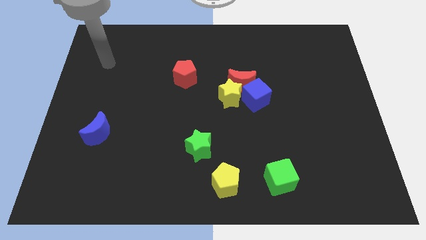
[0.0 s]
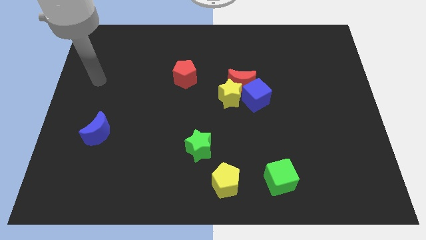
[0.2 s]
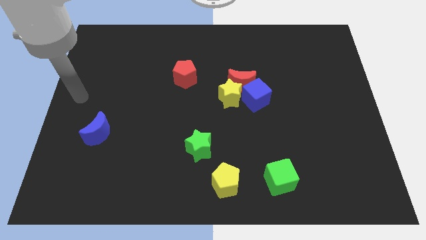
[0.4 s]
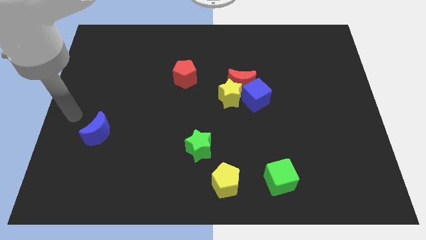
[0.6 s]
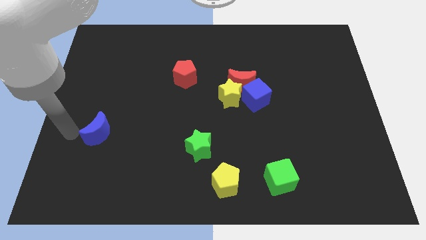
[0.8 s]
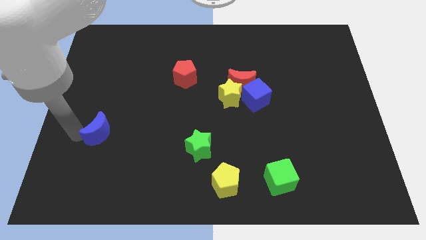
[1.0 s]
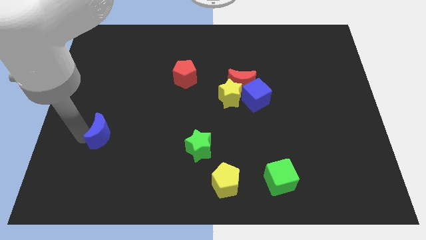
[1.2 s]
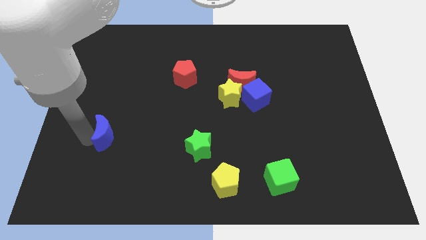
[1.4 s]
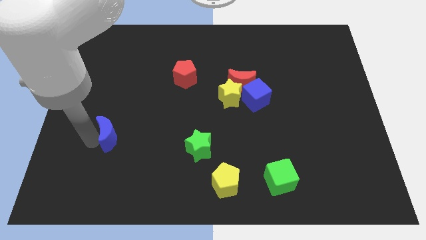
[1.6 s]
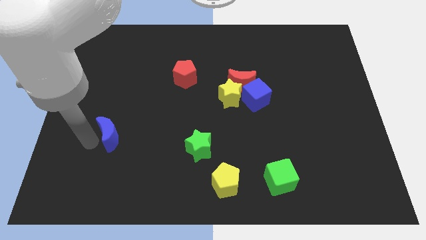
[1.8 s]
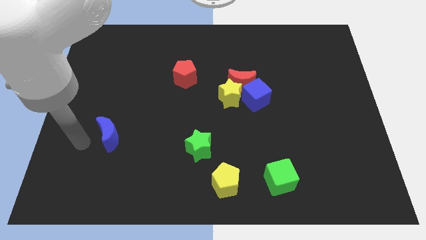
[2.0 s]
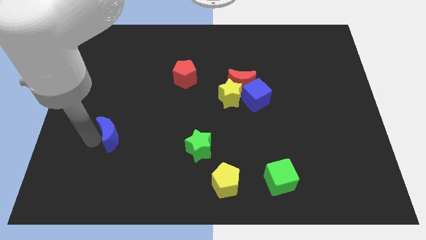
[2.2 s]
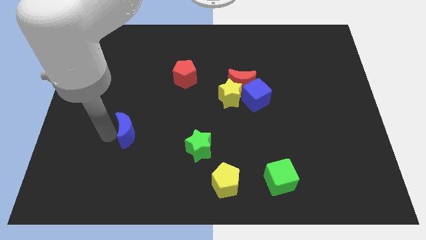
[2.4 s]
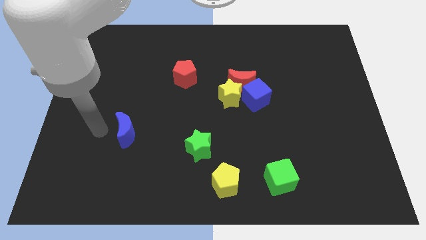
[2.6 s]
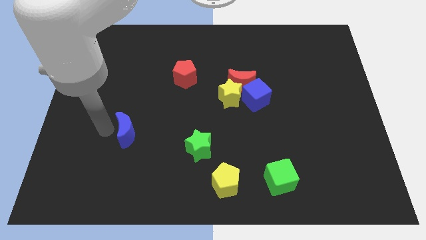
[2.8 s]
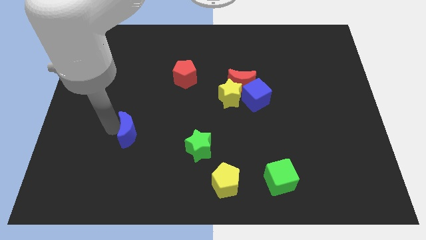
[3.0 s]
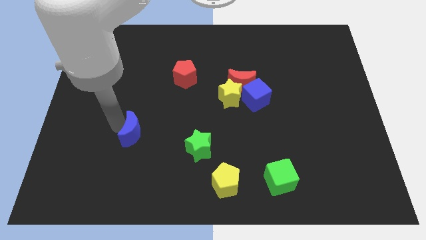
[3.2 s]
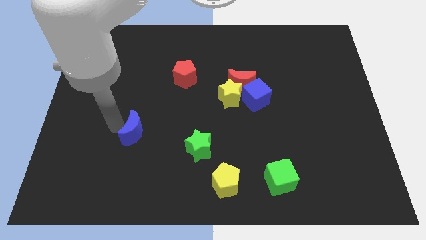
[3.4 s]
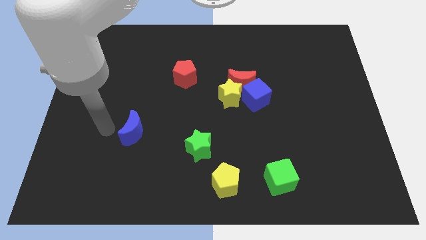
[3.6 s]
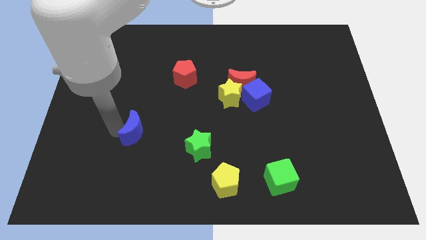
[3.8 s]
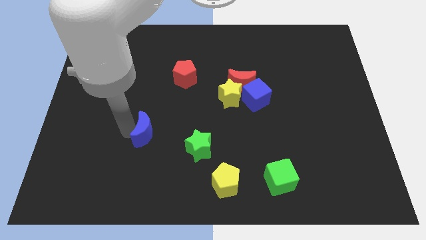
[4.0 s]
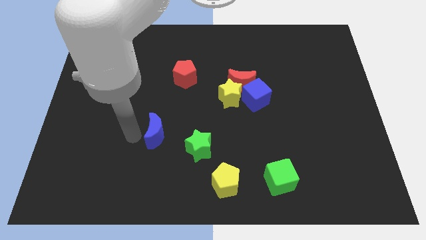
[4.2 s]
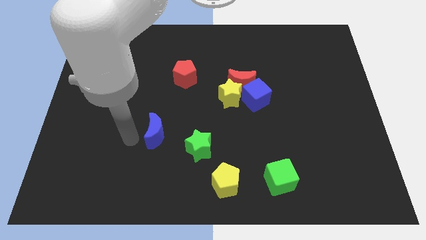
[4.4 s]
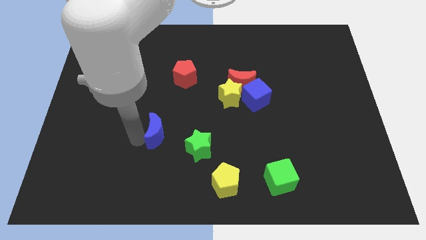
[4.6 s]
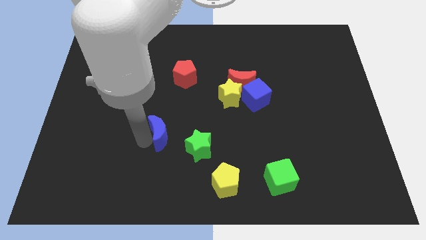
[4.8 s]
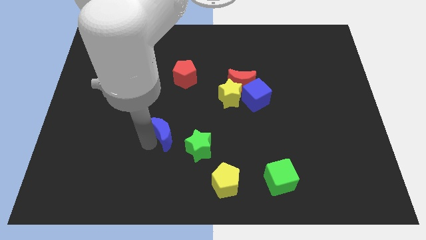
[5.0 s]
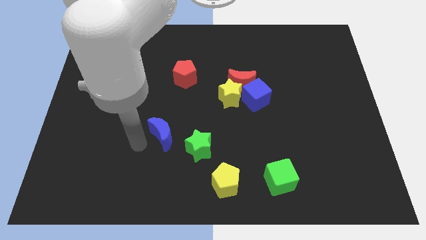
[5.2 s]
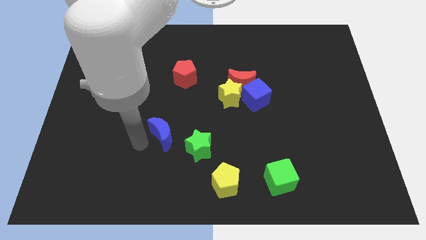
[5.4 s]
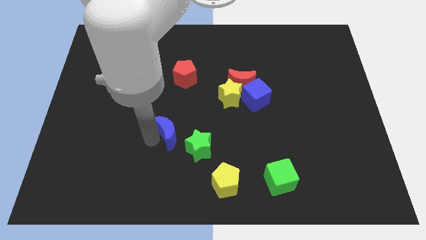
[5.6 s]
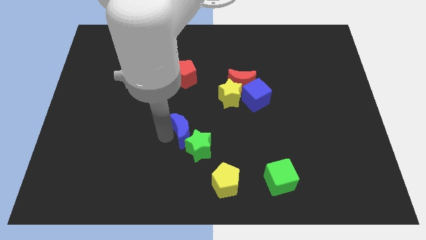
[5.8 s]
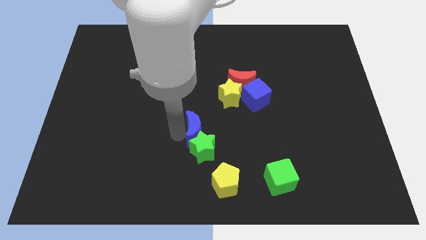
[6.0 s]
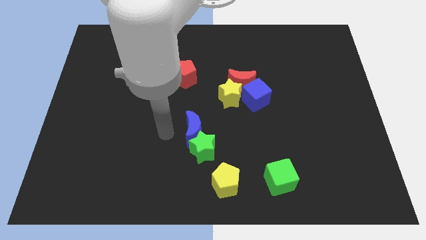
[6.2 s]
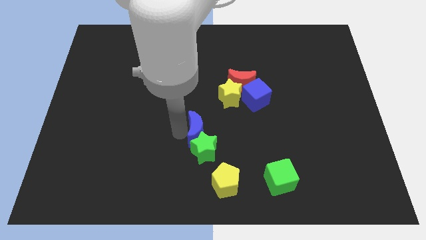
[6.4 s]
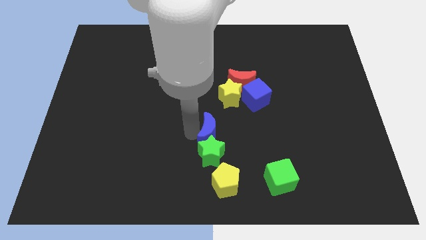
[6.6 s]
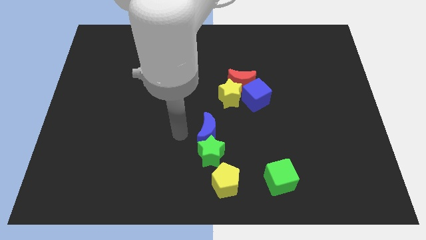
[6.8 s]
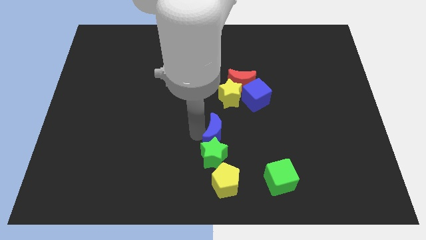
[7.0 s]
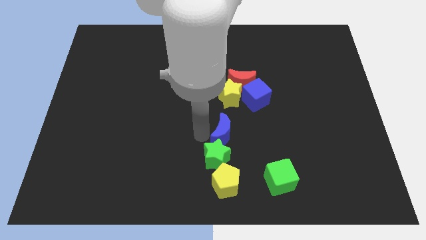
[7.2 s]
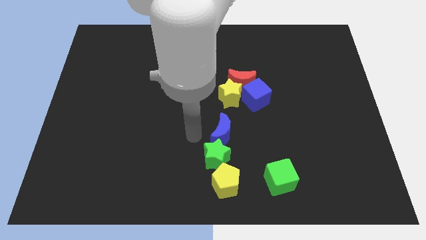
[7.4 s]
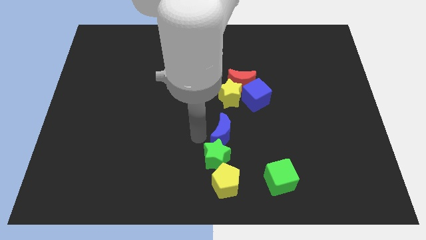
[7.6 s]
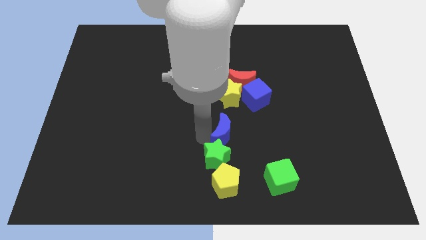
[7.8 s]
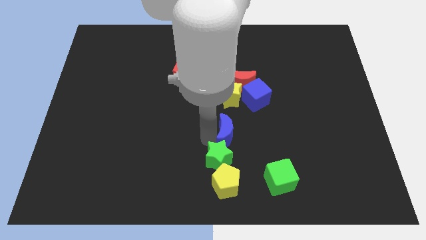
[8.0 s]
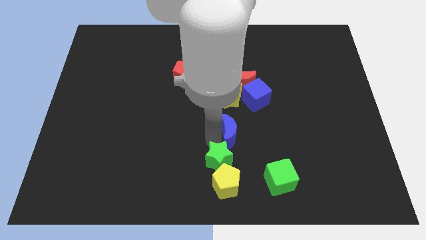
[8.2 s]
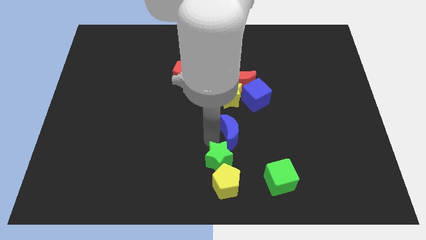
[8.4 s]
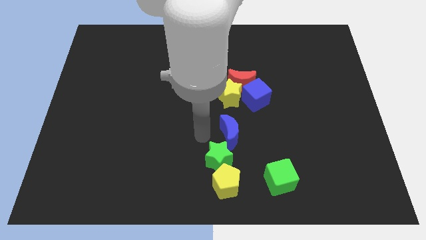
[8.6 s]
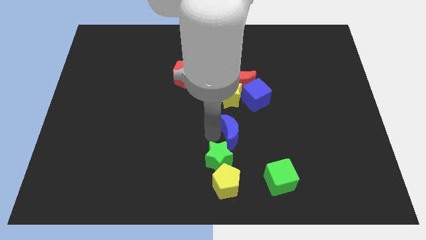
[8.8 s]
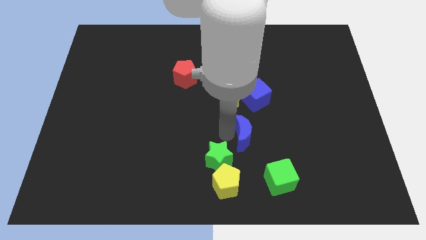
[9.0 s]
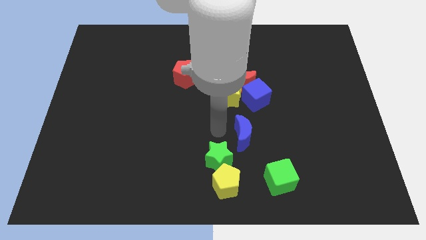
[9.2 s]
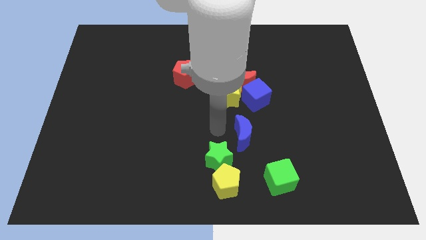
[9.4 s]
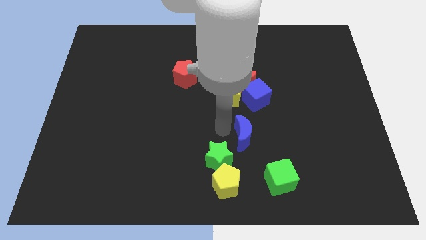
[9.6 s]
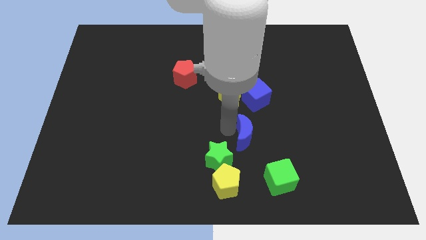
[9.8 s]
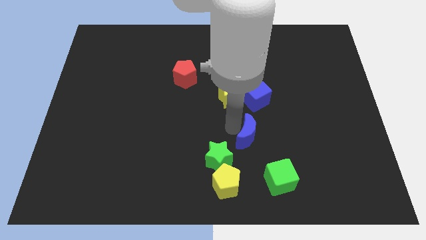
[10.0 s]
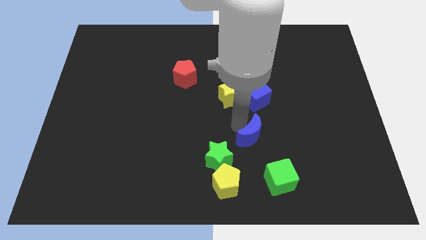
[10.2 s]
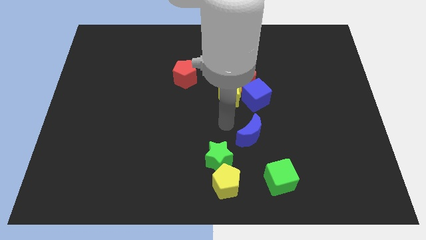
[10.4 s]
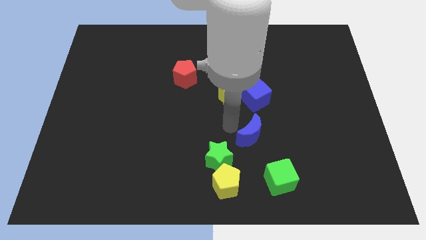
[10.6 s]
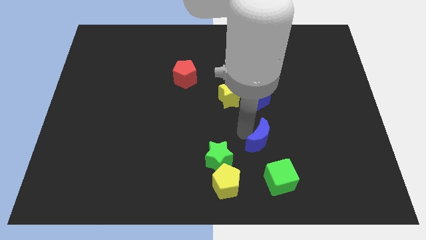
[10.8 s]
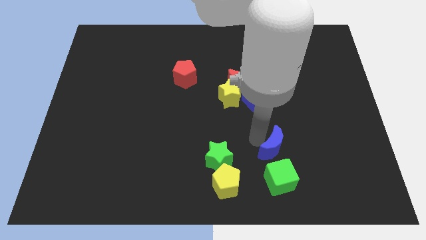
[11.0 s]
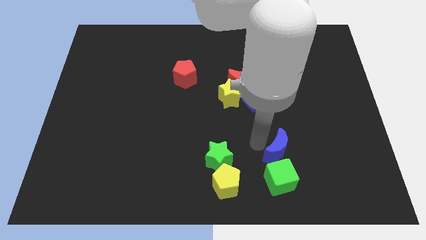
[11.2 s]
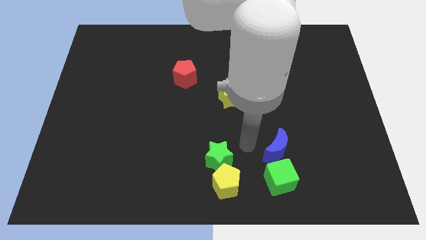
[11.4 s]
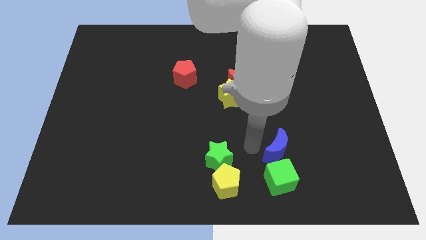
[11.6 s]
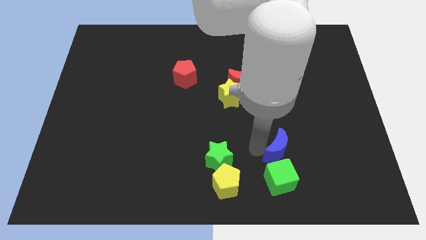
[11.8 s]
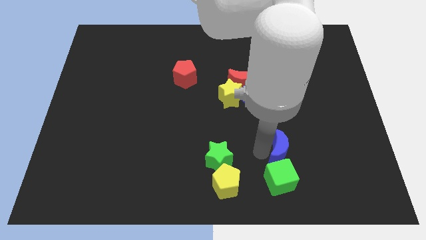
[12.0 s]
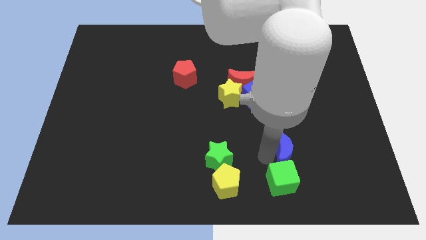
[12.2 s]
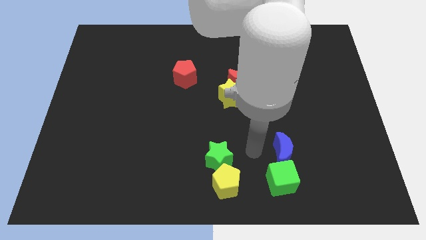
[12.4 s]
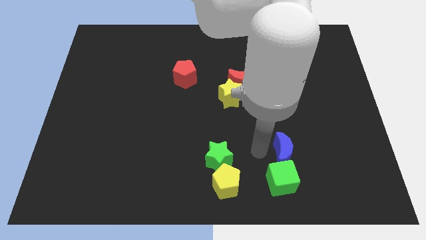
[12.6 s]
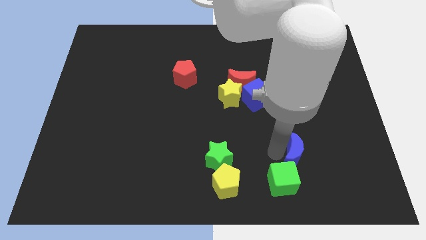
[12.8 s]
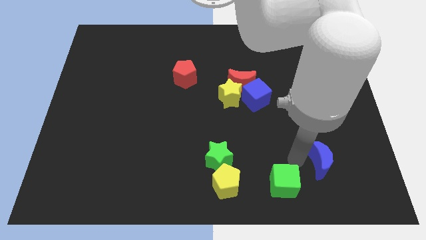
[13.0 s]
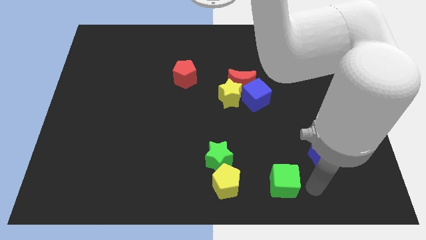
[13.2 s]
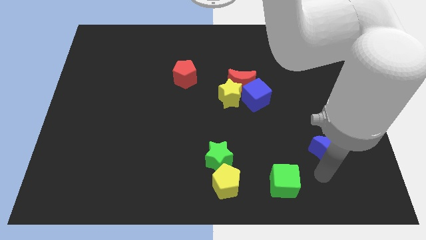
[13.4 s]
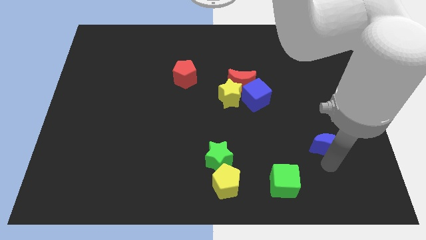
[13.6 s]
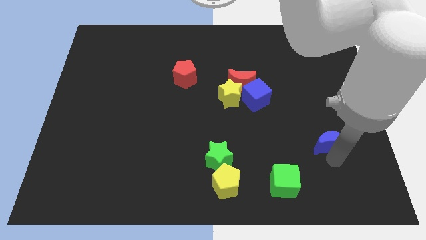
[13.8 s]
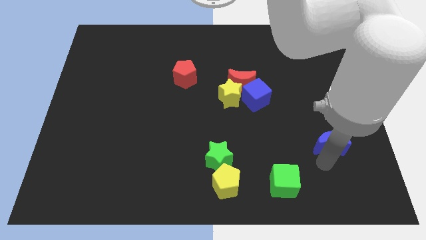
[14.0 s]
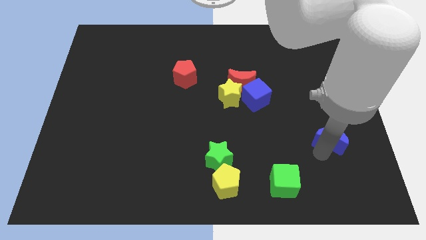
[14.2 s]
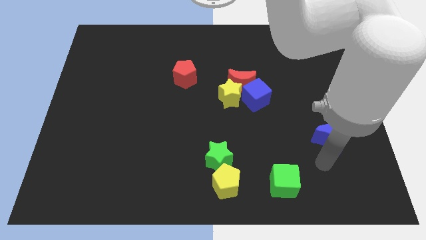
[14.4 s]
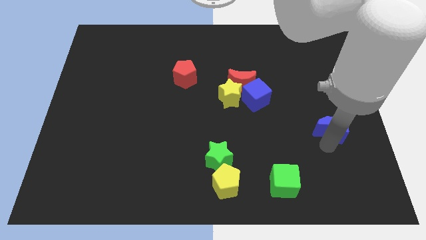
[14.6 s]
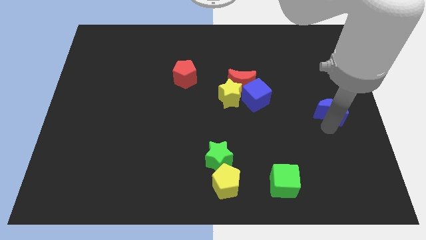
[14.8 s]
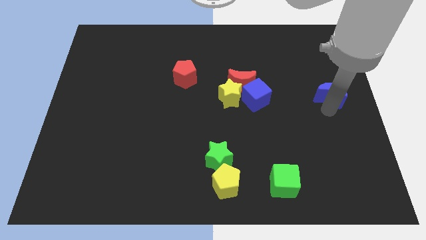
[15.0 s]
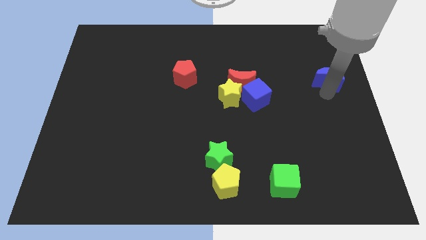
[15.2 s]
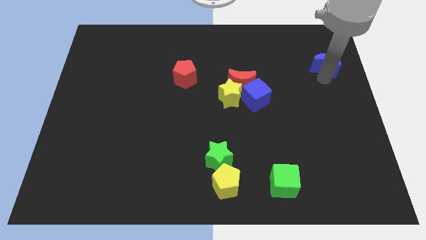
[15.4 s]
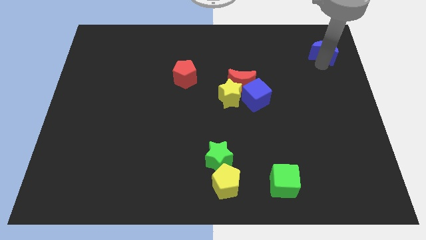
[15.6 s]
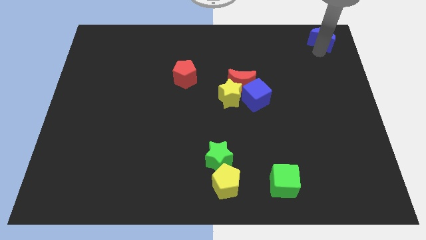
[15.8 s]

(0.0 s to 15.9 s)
push the blue moon to the top right
